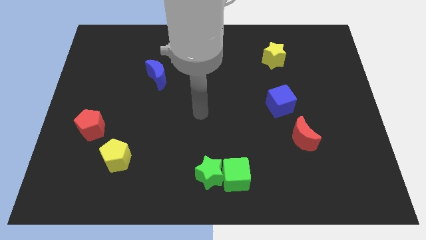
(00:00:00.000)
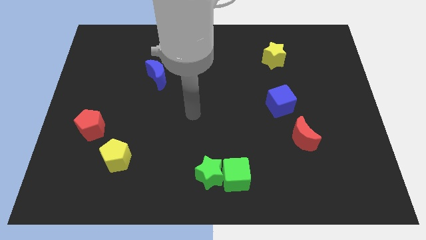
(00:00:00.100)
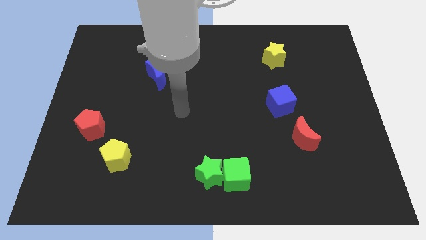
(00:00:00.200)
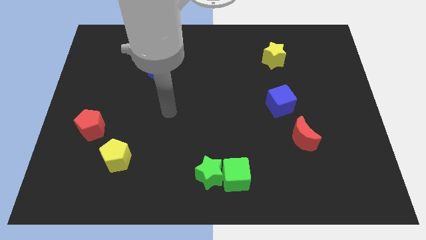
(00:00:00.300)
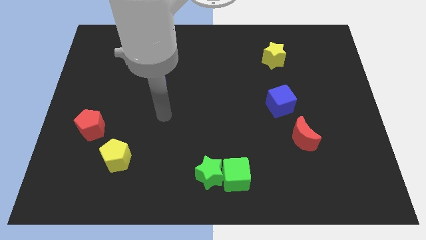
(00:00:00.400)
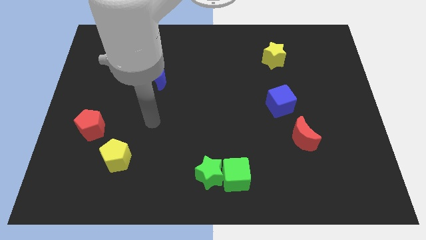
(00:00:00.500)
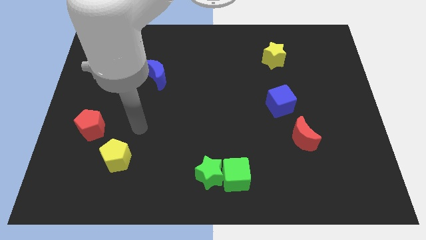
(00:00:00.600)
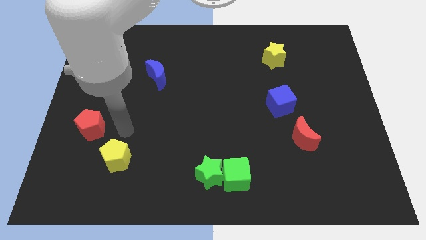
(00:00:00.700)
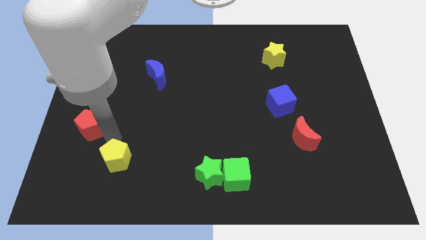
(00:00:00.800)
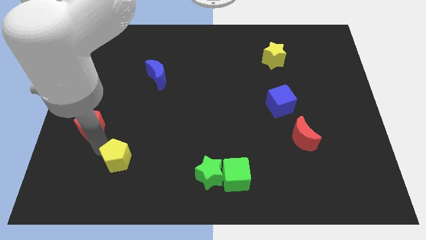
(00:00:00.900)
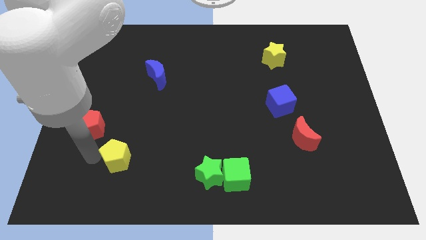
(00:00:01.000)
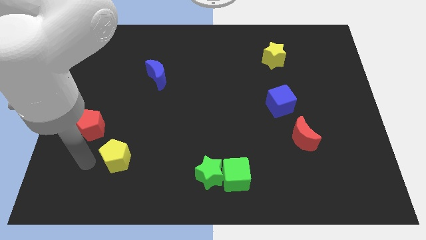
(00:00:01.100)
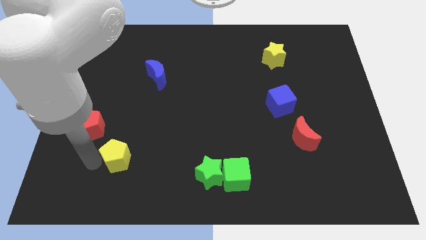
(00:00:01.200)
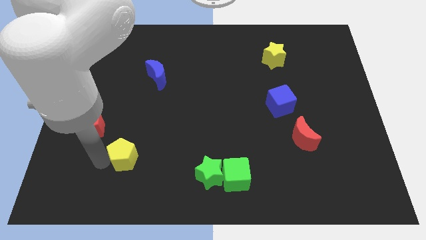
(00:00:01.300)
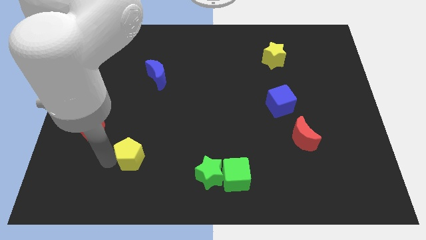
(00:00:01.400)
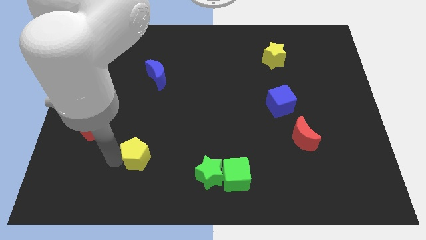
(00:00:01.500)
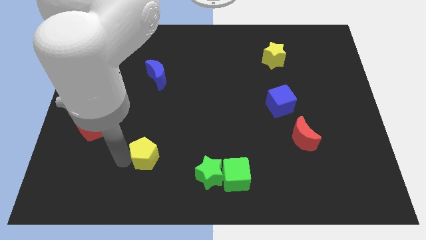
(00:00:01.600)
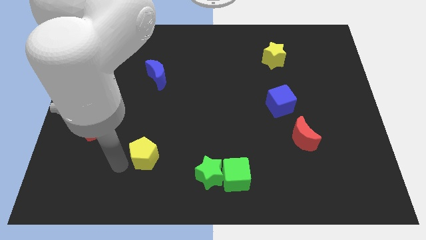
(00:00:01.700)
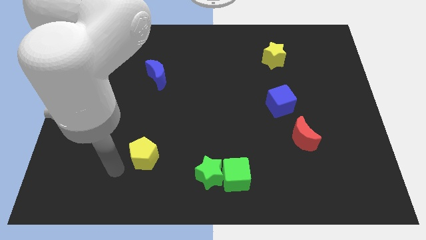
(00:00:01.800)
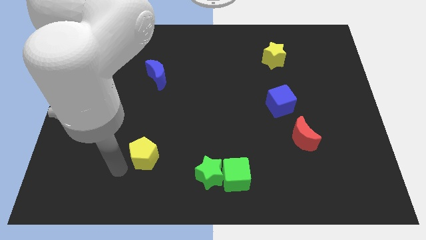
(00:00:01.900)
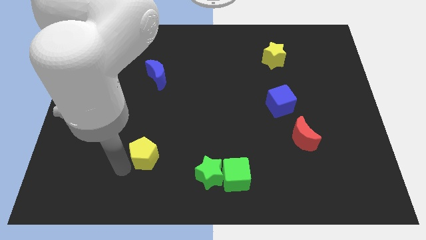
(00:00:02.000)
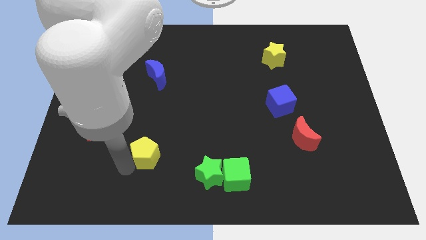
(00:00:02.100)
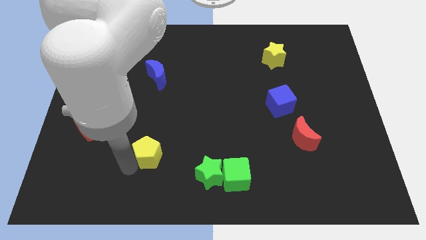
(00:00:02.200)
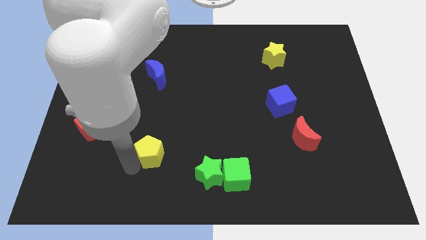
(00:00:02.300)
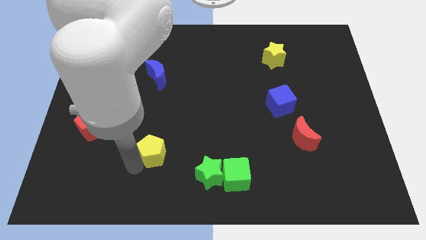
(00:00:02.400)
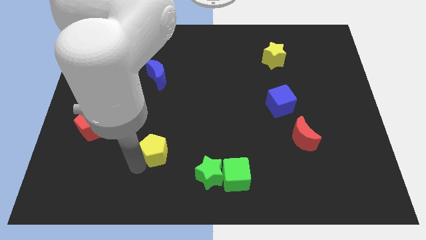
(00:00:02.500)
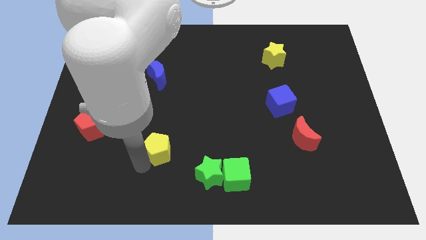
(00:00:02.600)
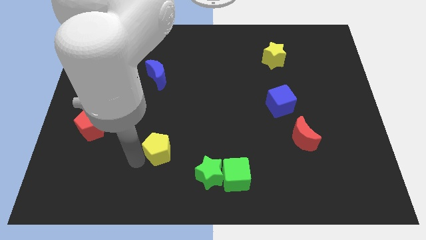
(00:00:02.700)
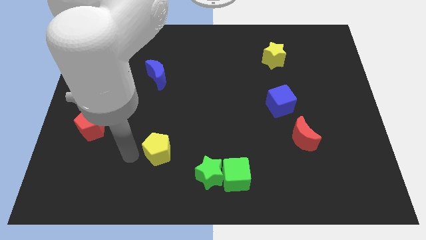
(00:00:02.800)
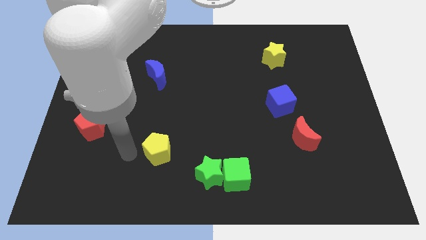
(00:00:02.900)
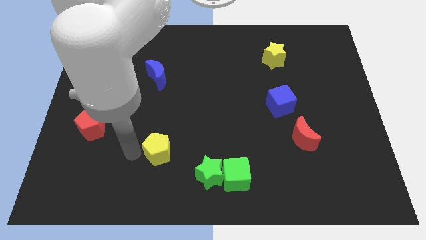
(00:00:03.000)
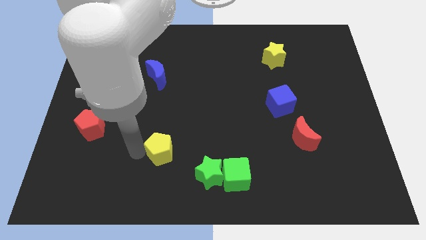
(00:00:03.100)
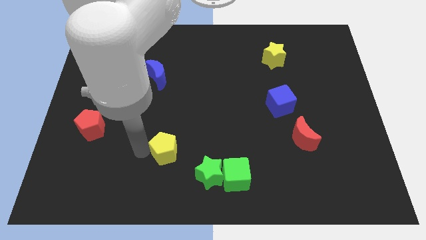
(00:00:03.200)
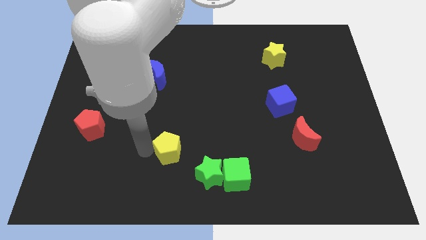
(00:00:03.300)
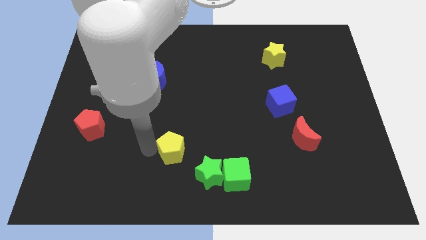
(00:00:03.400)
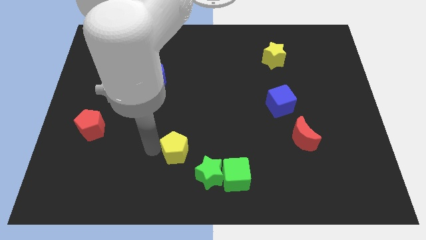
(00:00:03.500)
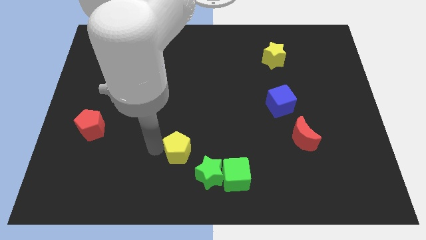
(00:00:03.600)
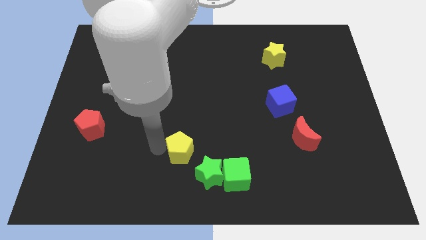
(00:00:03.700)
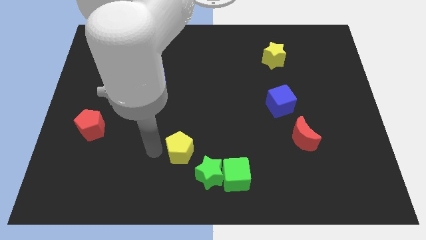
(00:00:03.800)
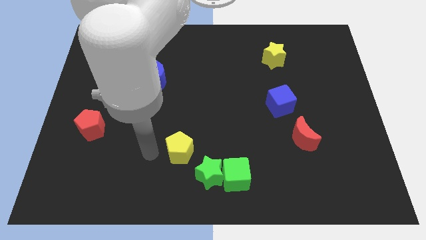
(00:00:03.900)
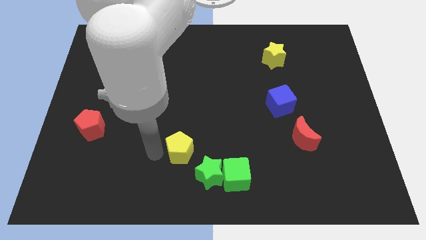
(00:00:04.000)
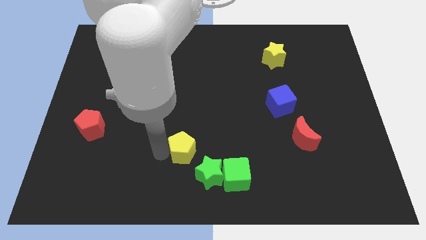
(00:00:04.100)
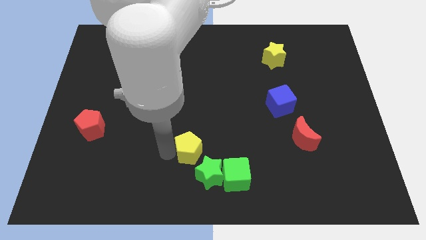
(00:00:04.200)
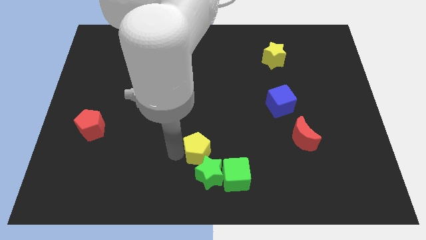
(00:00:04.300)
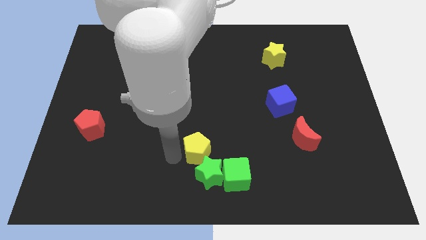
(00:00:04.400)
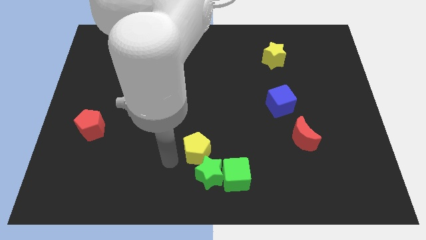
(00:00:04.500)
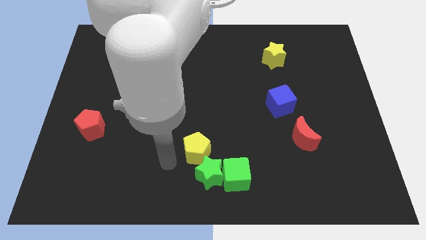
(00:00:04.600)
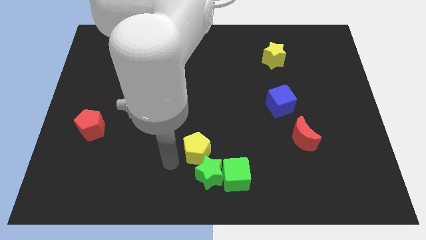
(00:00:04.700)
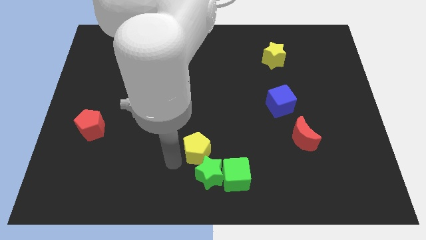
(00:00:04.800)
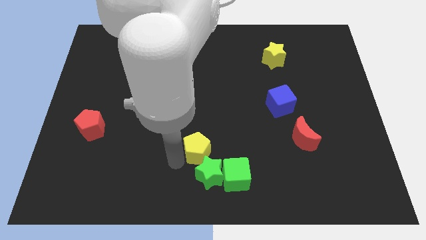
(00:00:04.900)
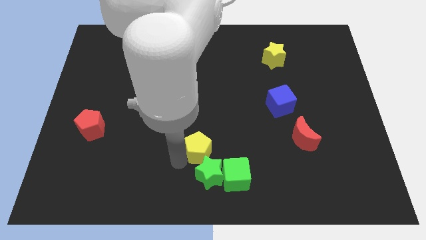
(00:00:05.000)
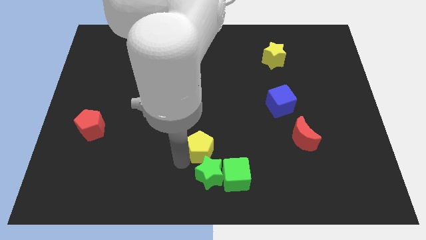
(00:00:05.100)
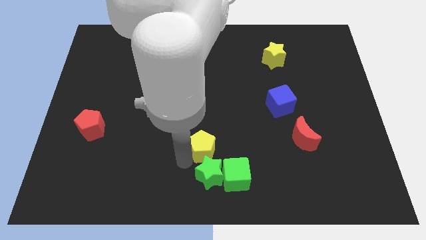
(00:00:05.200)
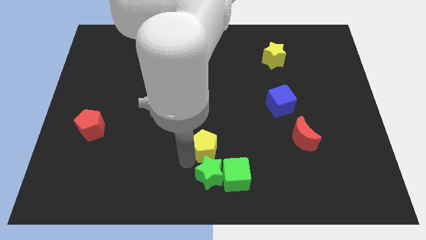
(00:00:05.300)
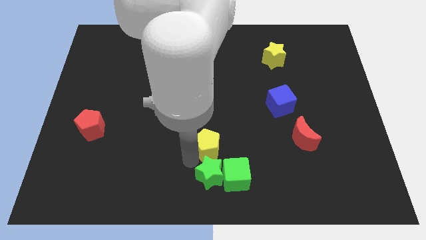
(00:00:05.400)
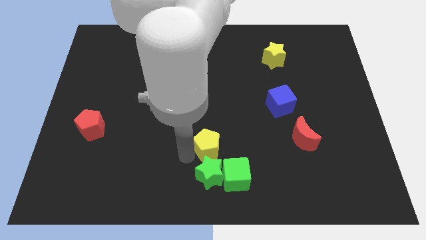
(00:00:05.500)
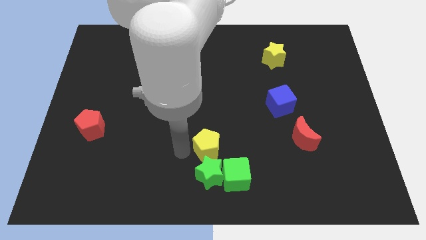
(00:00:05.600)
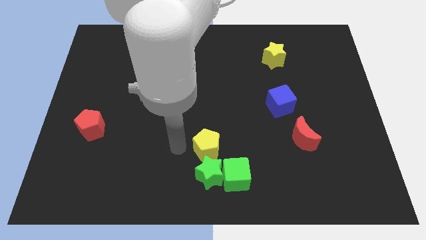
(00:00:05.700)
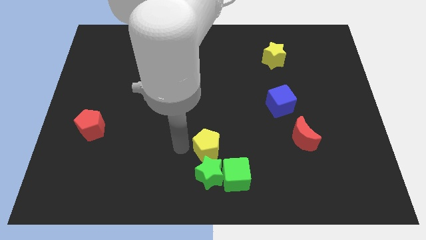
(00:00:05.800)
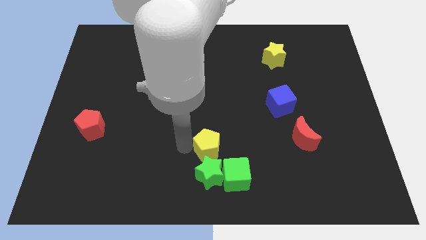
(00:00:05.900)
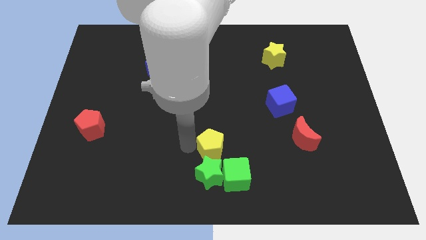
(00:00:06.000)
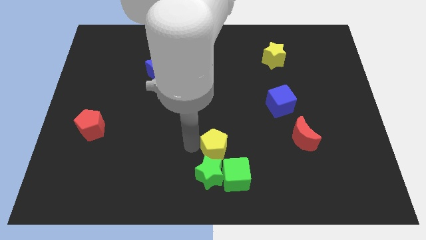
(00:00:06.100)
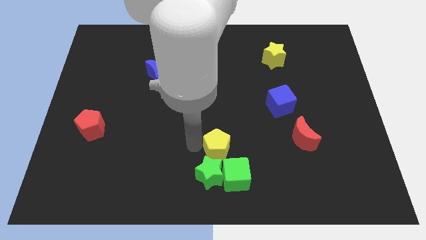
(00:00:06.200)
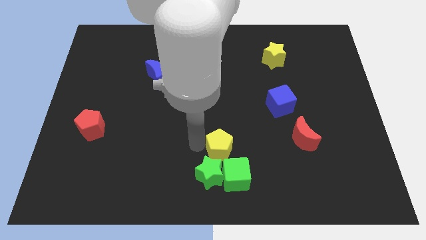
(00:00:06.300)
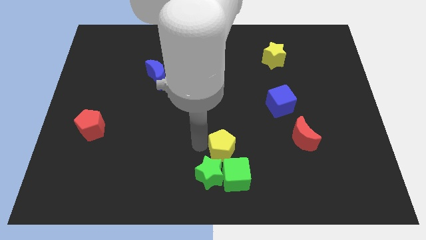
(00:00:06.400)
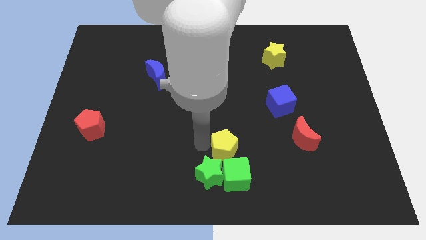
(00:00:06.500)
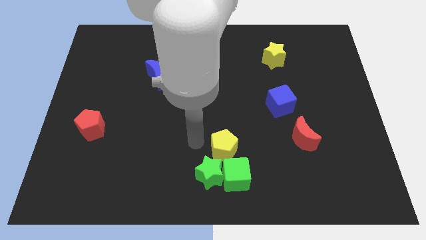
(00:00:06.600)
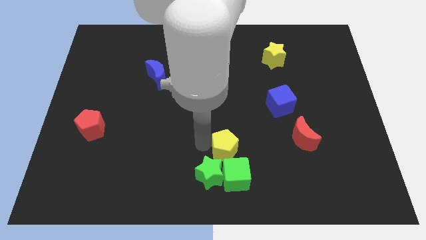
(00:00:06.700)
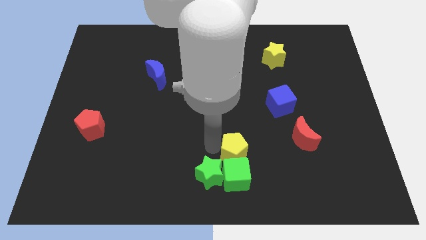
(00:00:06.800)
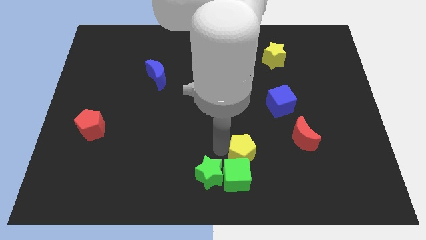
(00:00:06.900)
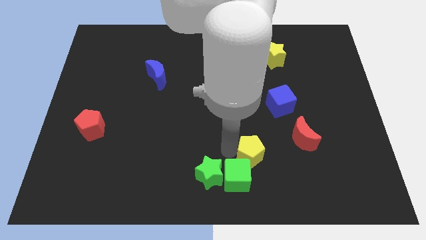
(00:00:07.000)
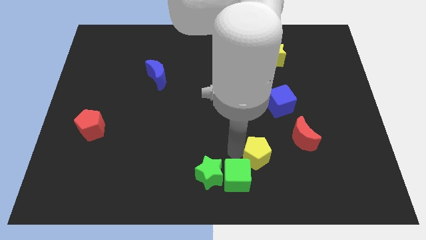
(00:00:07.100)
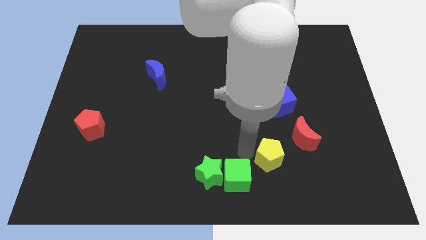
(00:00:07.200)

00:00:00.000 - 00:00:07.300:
put the yellow pentagon just right of the green cube
